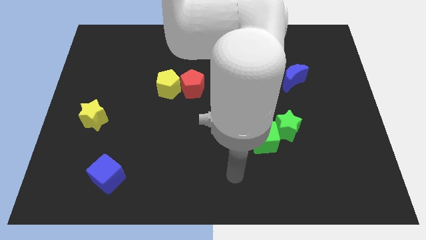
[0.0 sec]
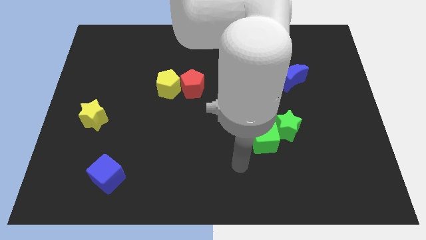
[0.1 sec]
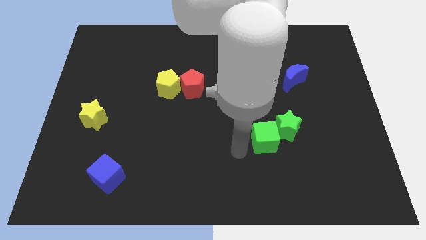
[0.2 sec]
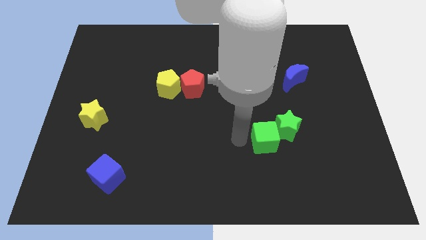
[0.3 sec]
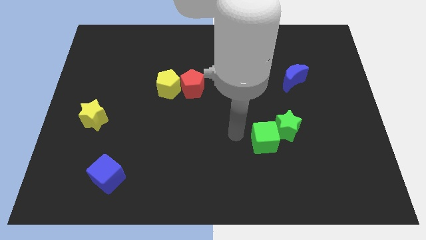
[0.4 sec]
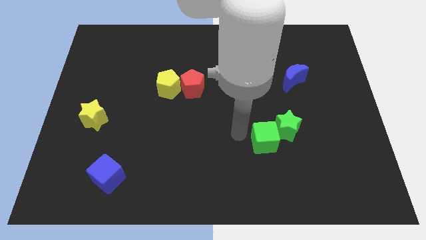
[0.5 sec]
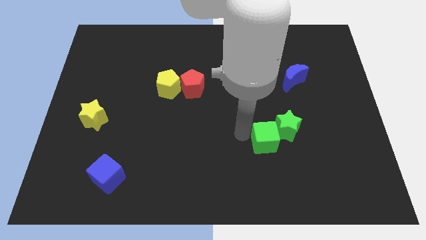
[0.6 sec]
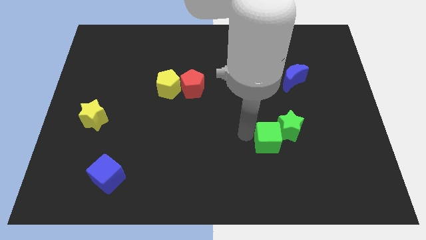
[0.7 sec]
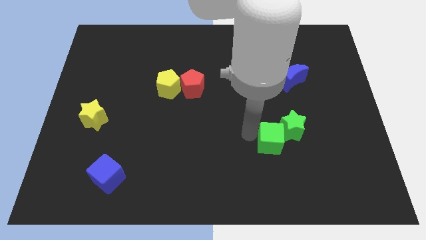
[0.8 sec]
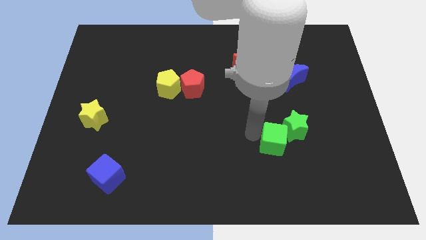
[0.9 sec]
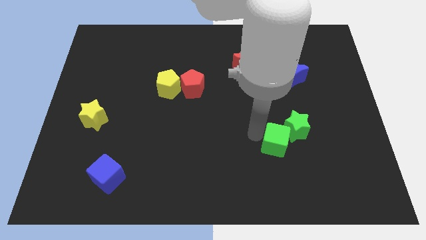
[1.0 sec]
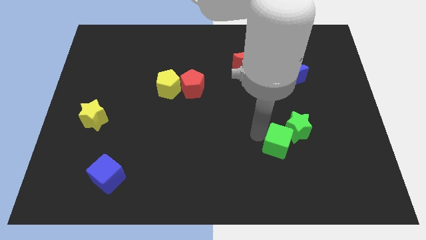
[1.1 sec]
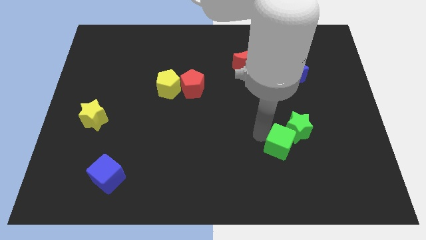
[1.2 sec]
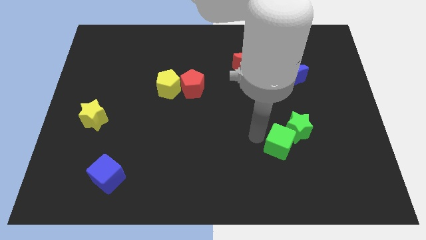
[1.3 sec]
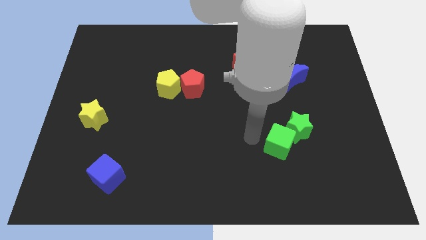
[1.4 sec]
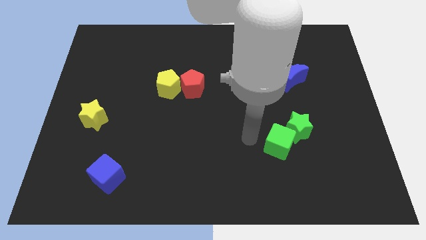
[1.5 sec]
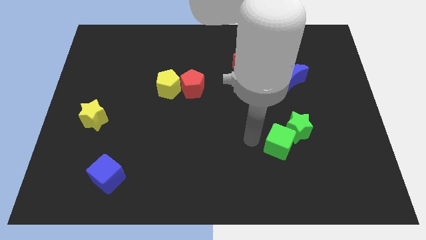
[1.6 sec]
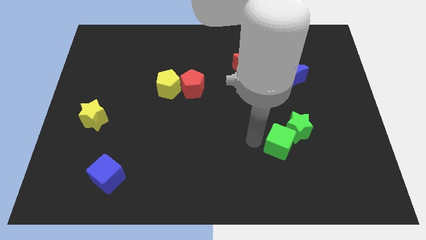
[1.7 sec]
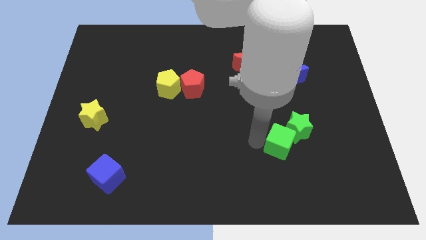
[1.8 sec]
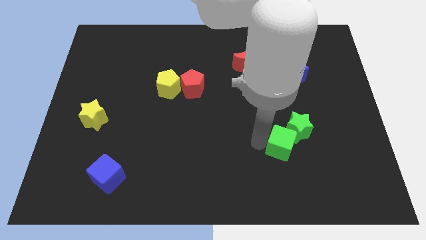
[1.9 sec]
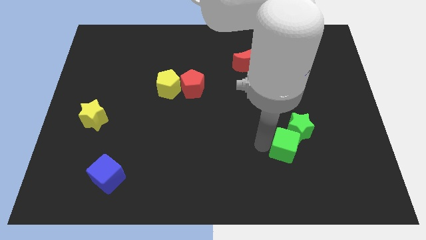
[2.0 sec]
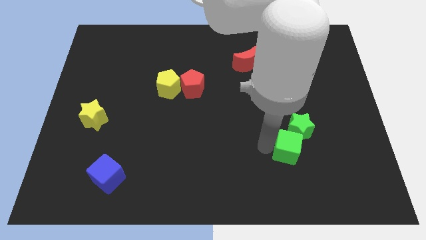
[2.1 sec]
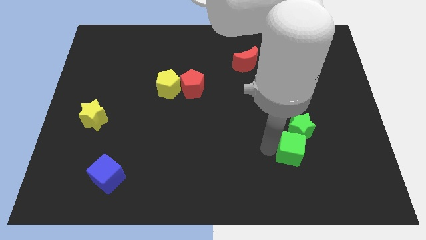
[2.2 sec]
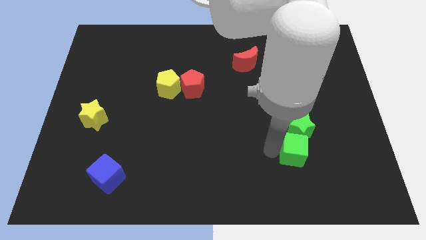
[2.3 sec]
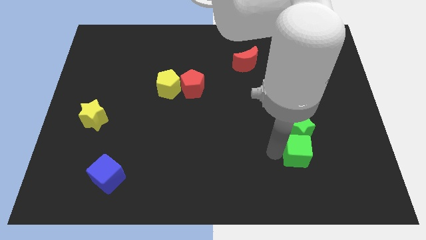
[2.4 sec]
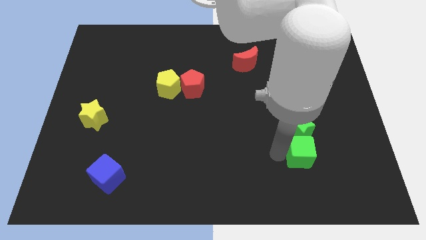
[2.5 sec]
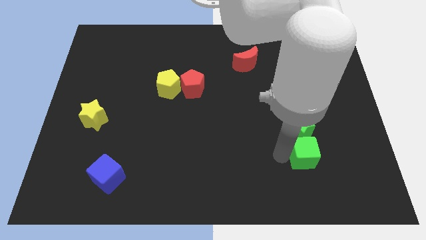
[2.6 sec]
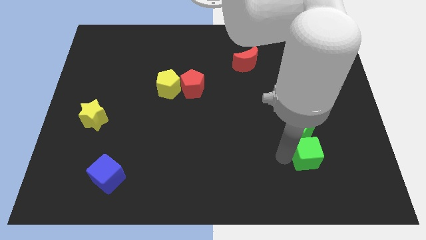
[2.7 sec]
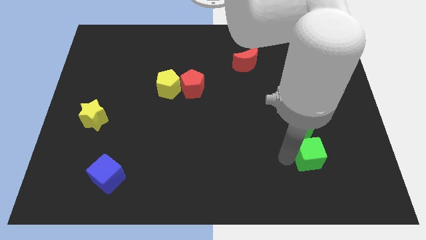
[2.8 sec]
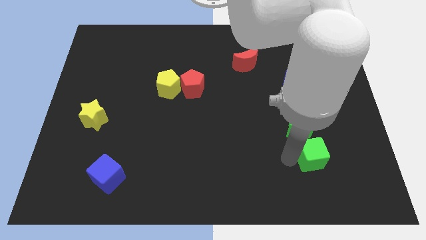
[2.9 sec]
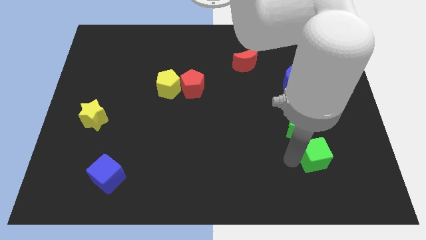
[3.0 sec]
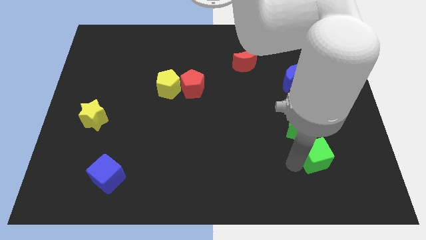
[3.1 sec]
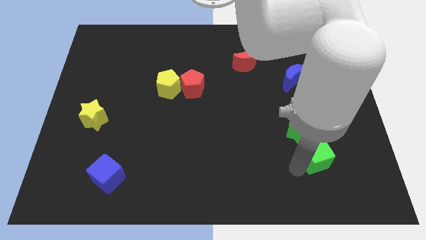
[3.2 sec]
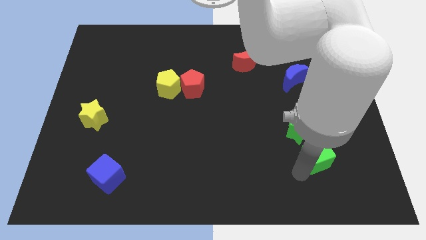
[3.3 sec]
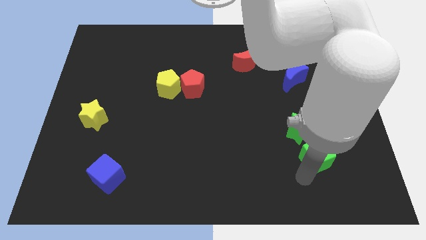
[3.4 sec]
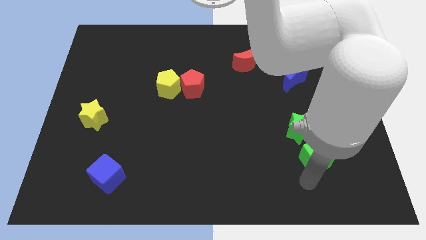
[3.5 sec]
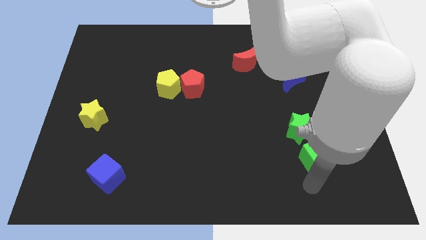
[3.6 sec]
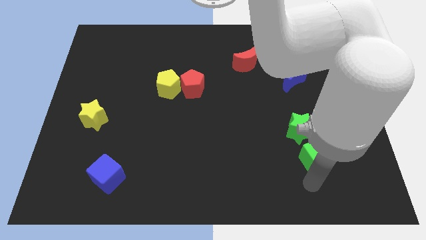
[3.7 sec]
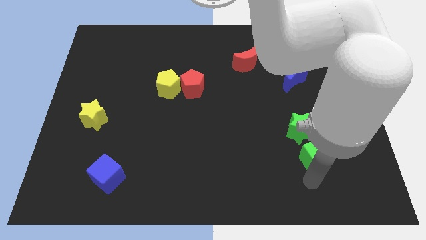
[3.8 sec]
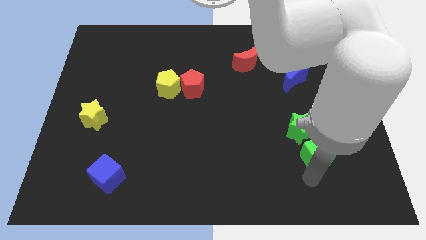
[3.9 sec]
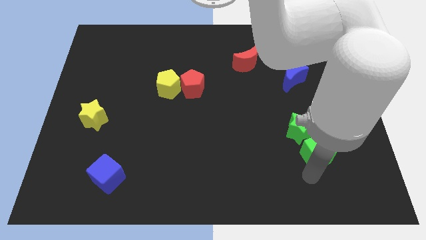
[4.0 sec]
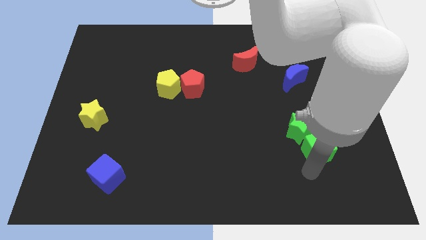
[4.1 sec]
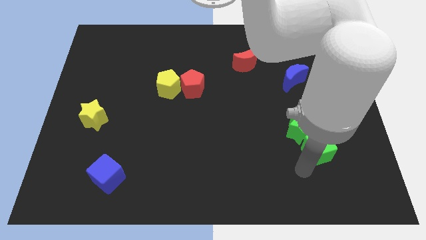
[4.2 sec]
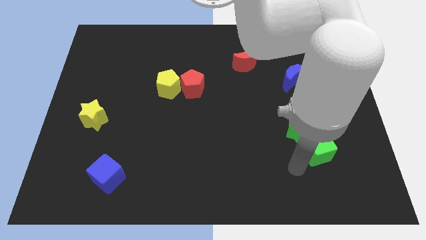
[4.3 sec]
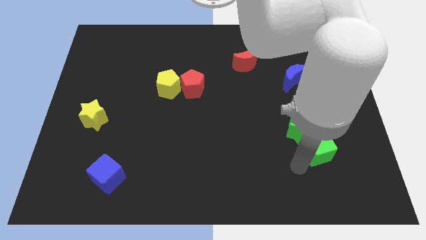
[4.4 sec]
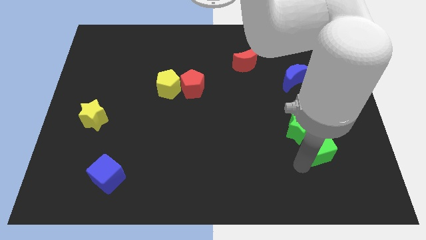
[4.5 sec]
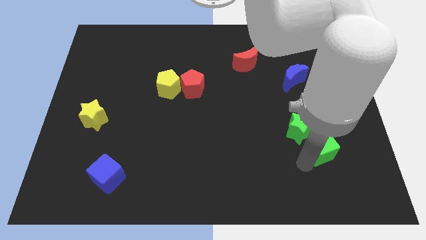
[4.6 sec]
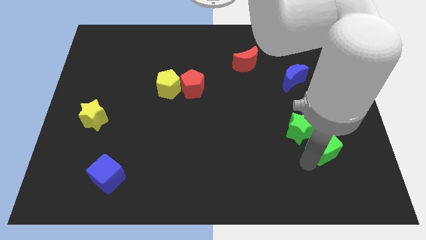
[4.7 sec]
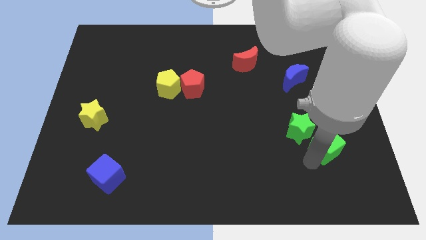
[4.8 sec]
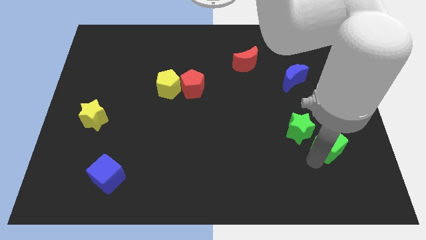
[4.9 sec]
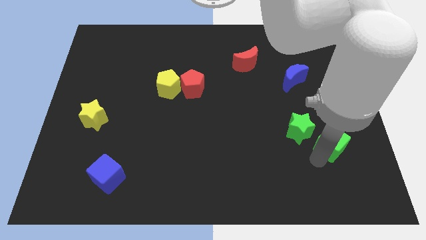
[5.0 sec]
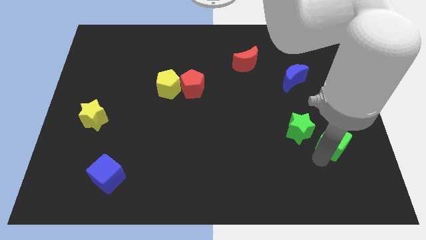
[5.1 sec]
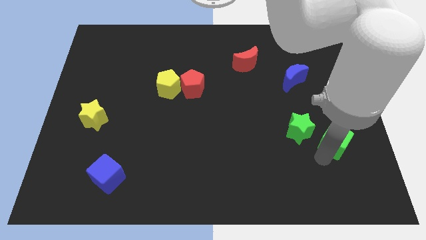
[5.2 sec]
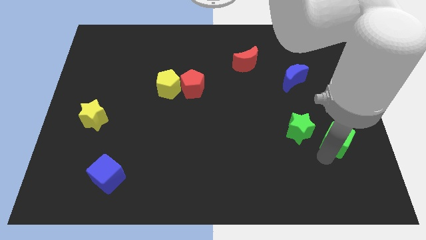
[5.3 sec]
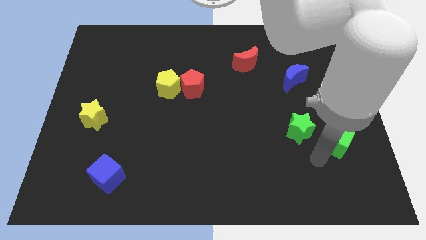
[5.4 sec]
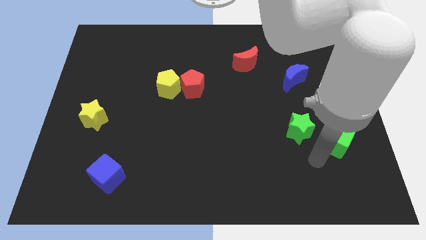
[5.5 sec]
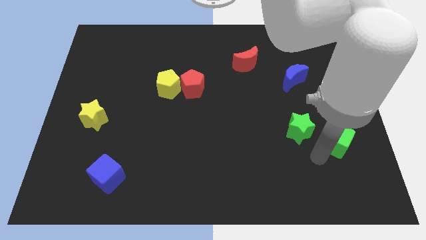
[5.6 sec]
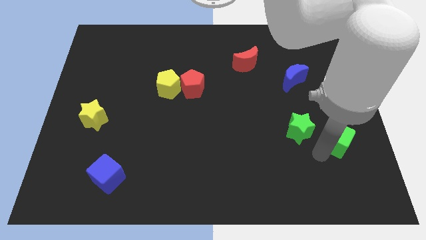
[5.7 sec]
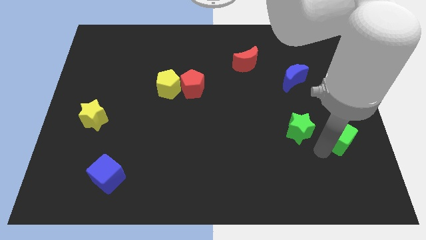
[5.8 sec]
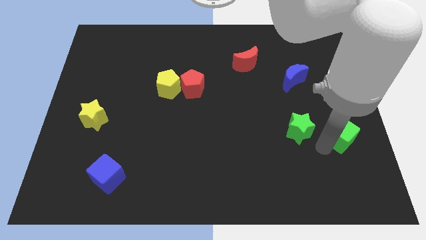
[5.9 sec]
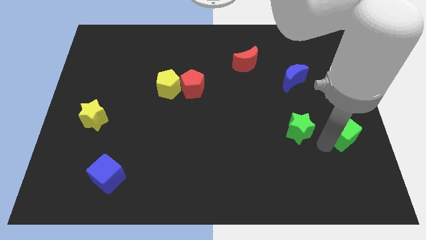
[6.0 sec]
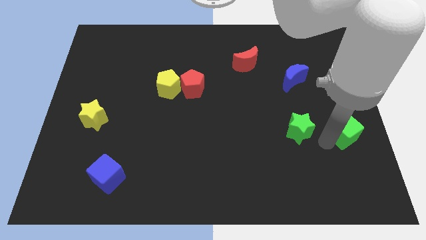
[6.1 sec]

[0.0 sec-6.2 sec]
put the green cube to the center right
